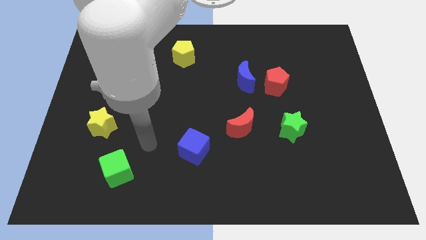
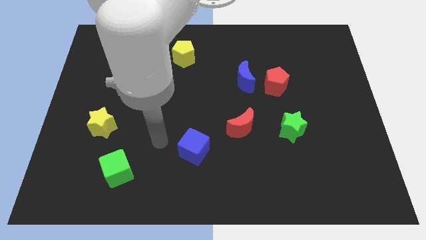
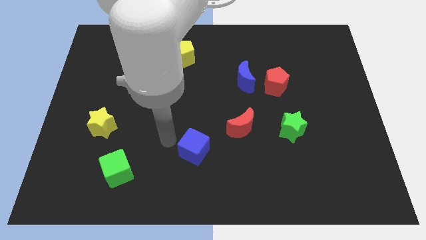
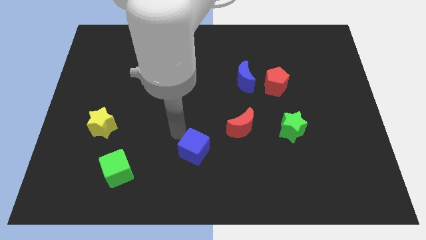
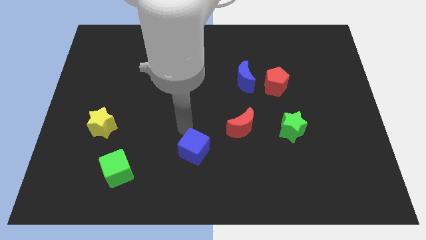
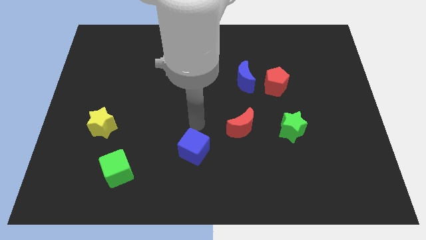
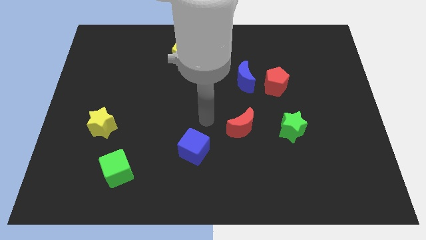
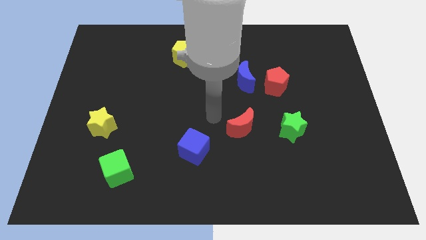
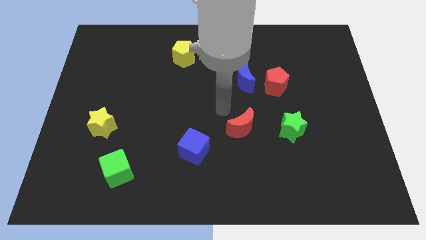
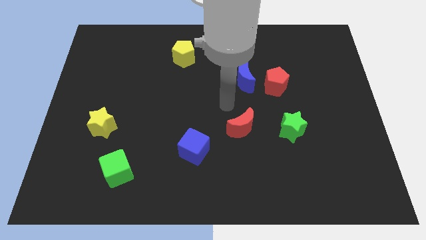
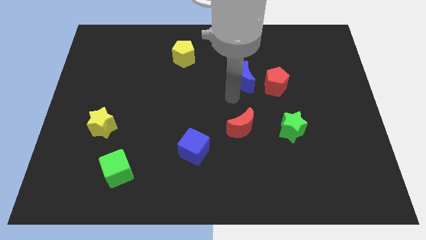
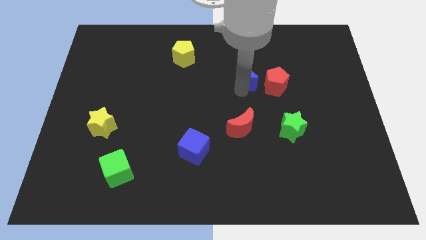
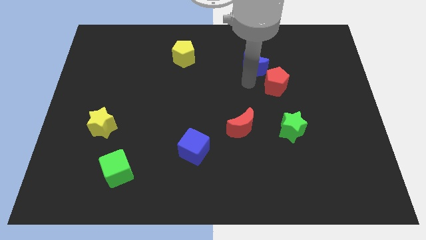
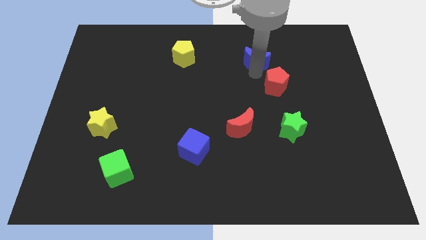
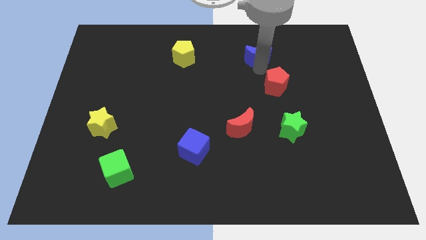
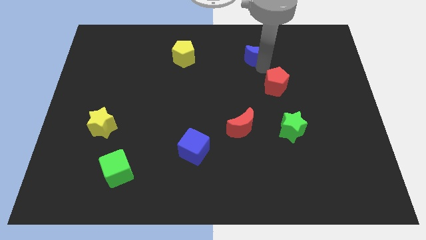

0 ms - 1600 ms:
separate the red pentagon from the blue moon

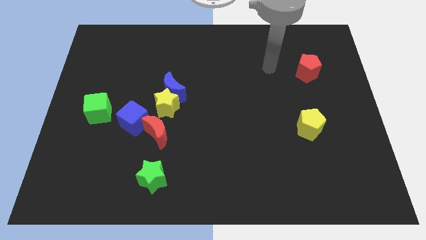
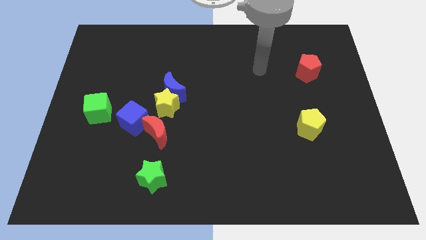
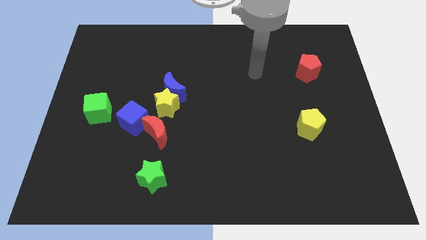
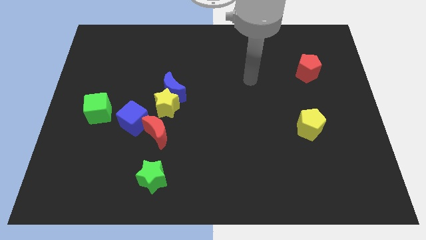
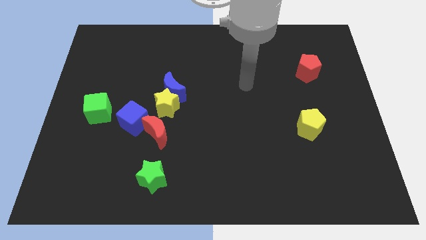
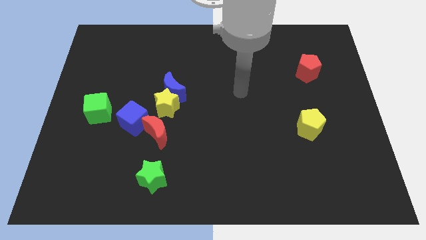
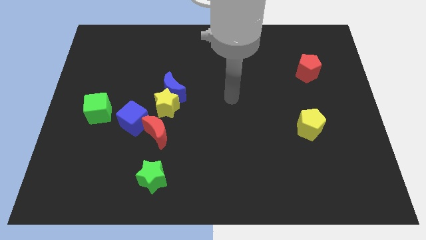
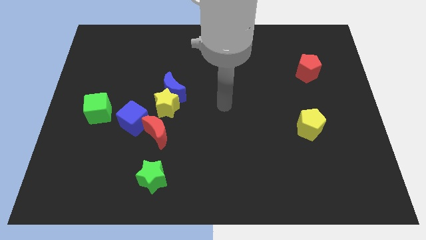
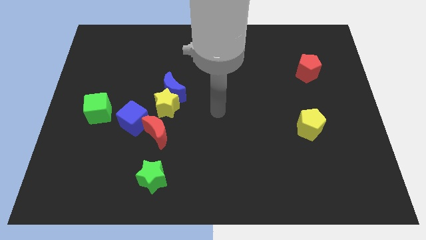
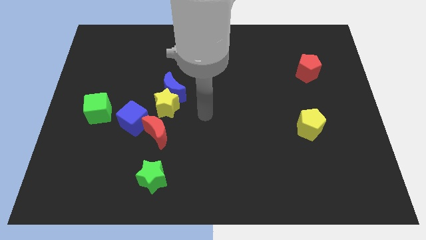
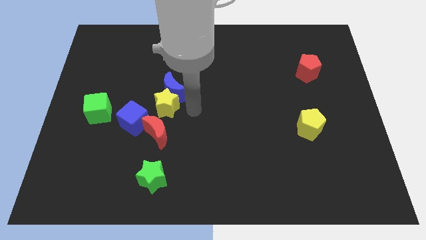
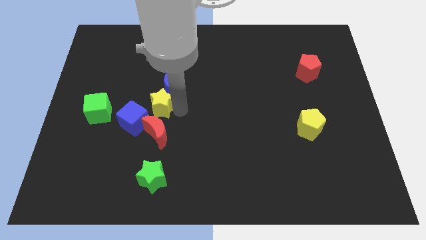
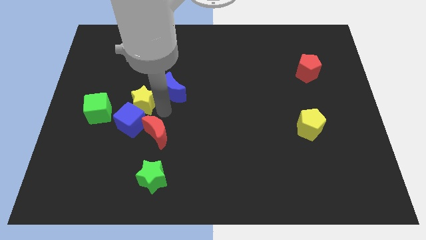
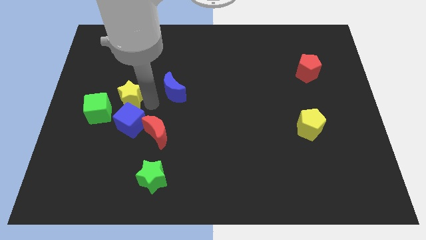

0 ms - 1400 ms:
pull the blue moon apart from the yellow star

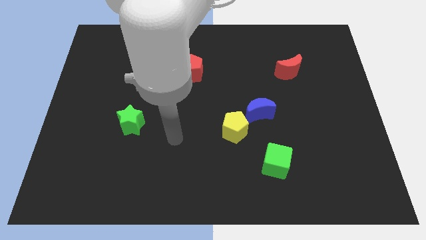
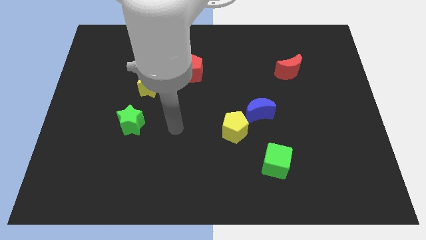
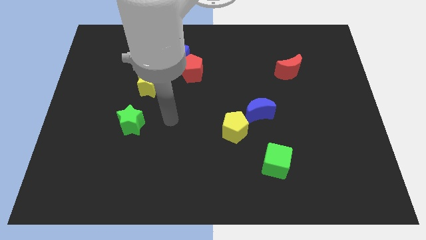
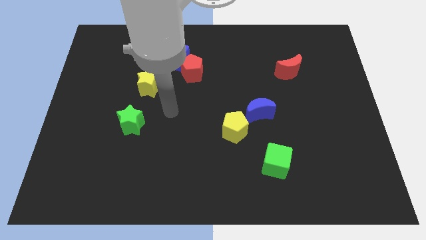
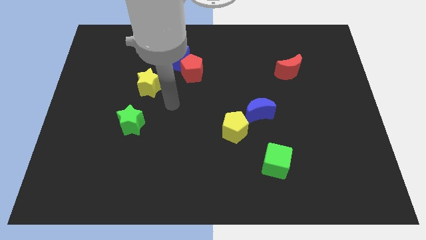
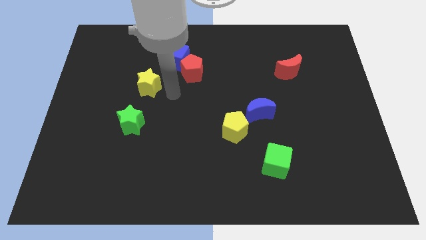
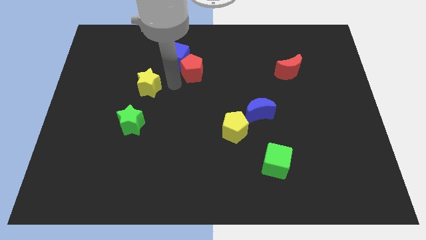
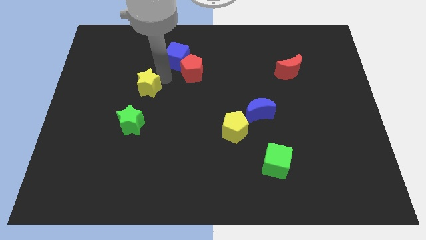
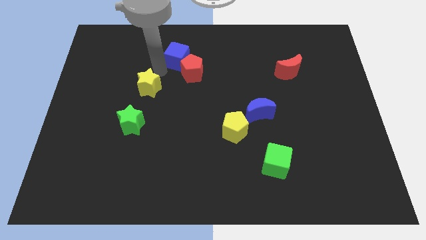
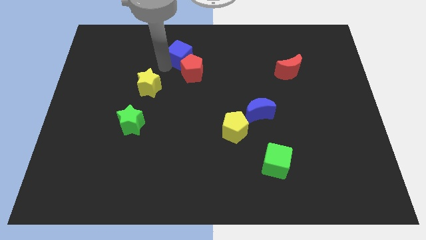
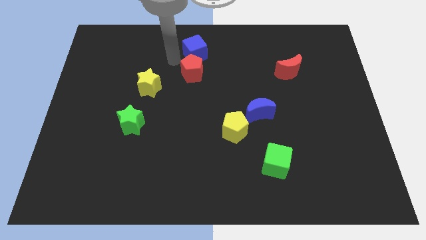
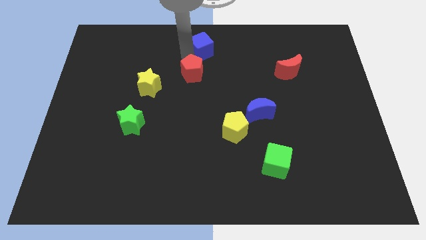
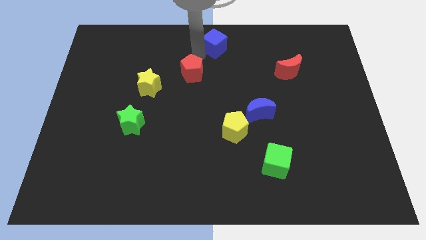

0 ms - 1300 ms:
move the red pentagon away from the blue cube

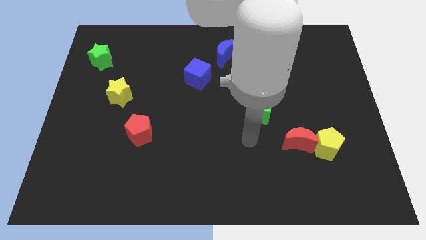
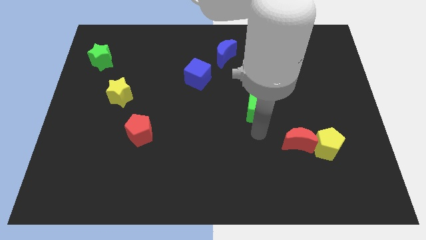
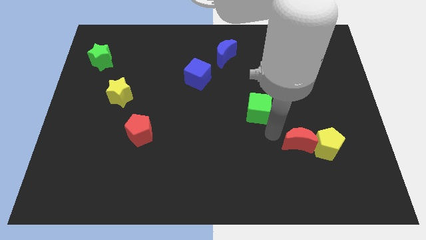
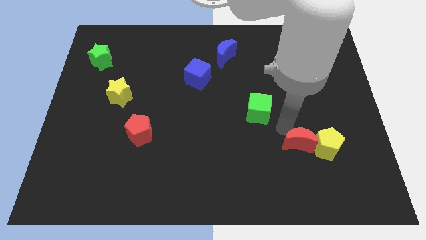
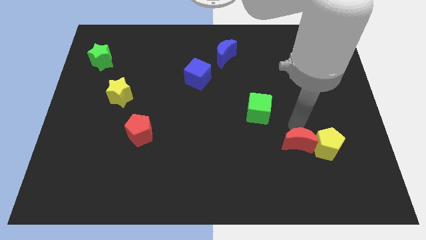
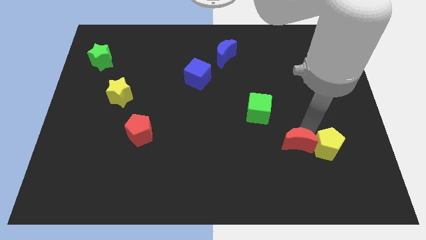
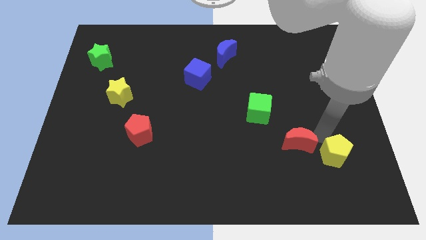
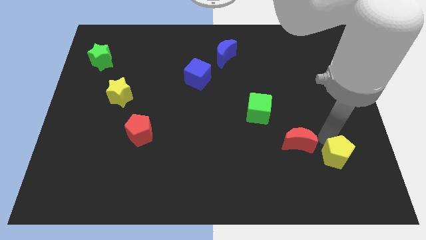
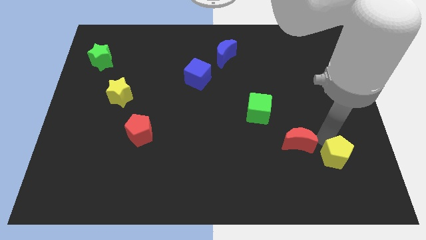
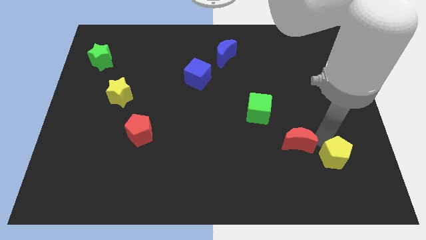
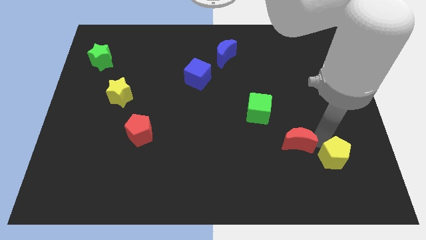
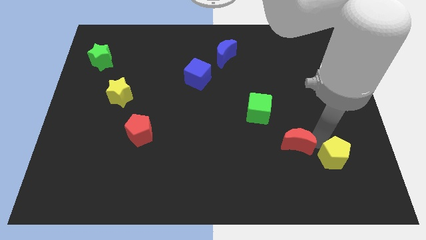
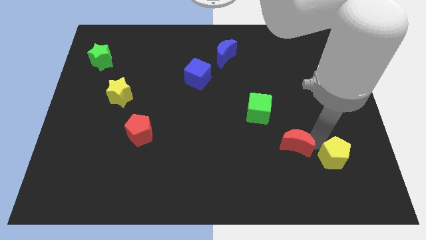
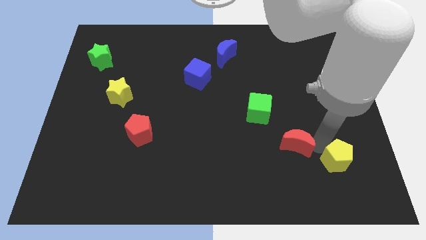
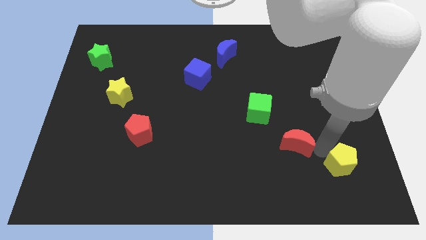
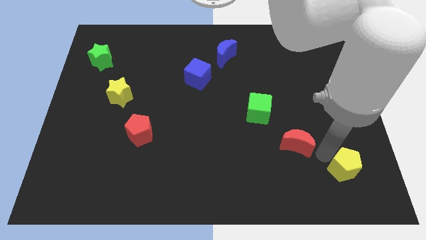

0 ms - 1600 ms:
separate the red moon from the yellow pentagon

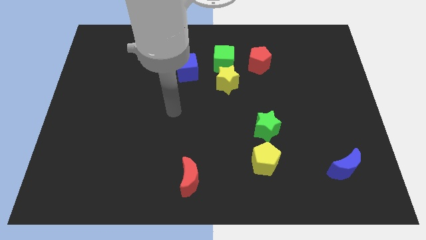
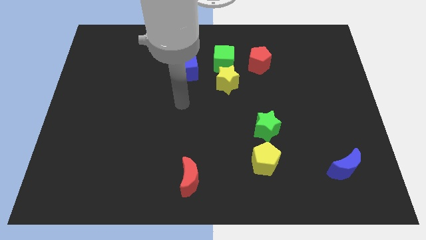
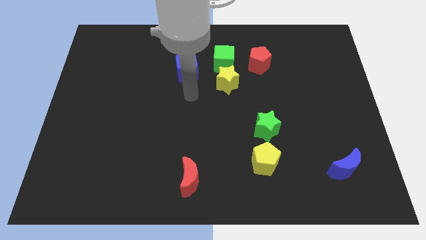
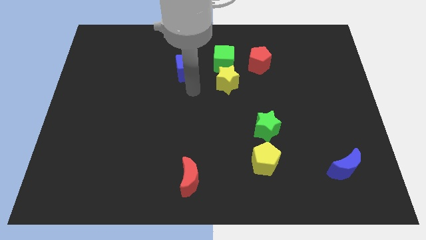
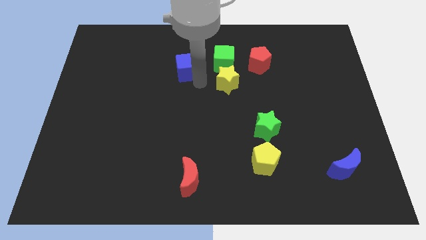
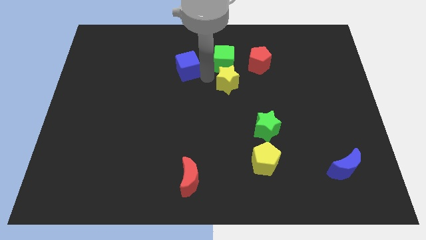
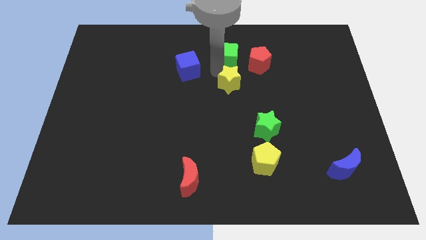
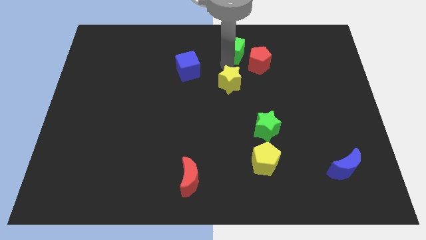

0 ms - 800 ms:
separate the yellow star from the green cube

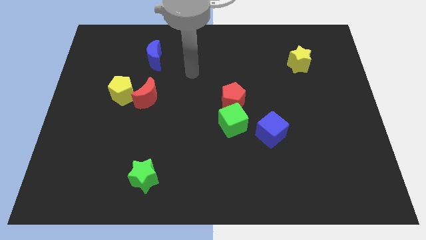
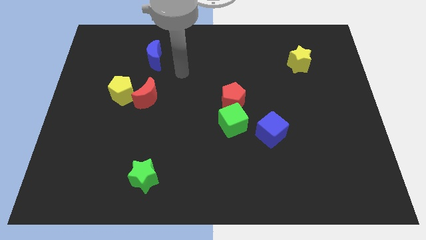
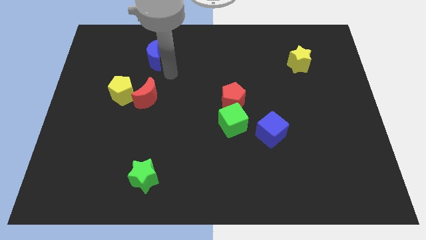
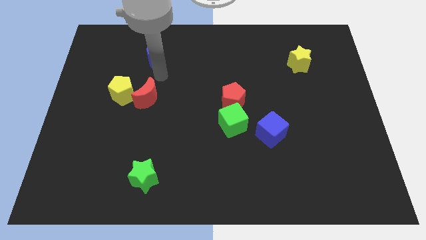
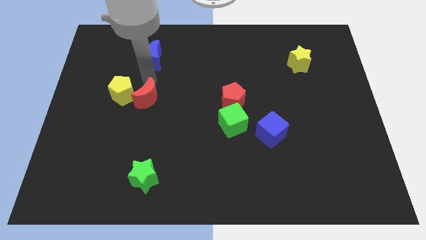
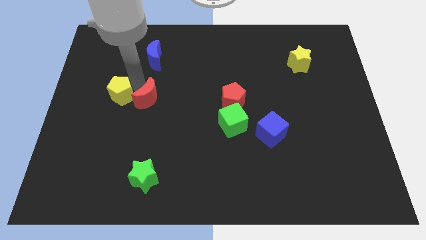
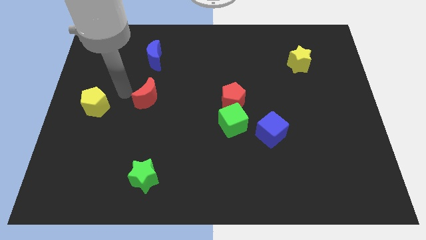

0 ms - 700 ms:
move the red moon away from the yellow pentagon

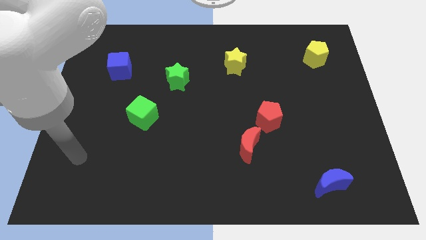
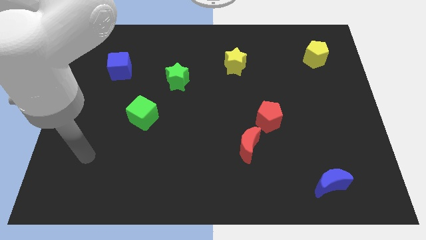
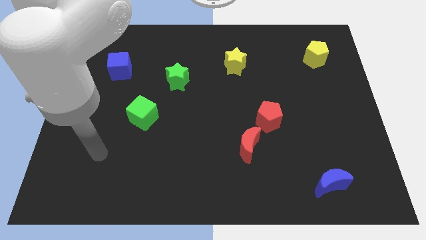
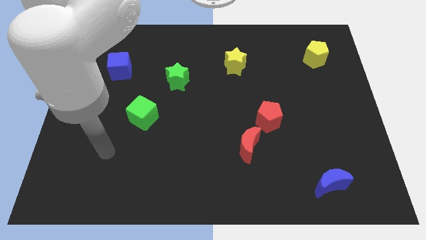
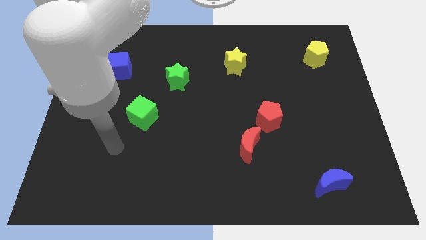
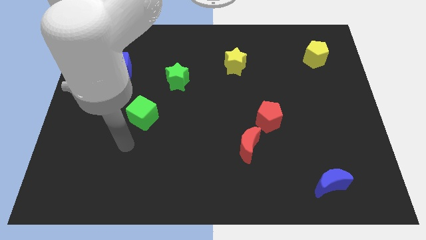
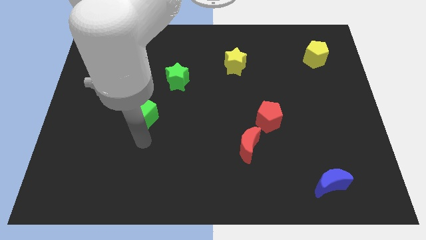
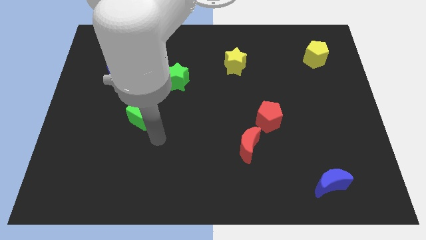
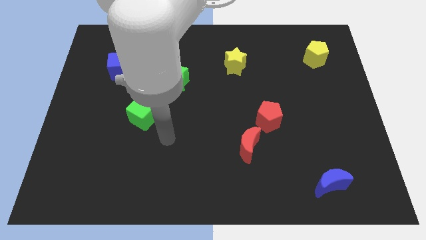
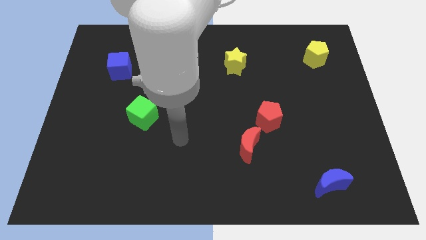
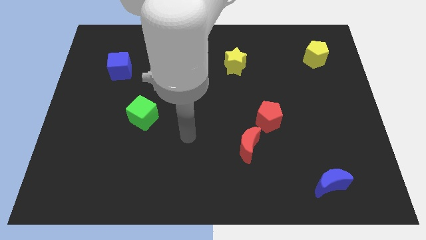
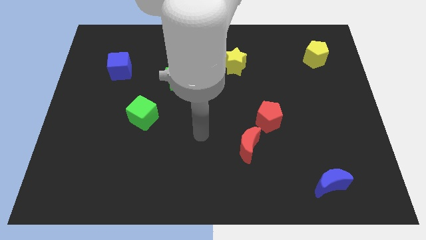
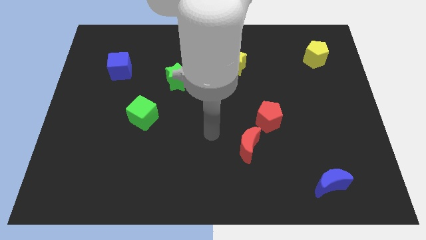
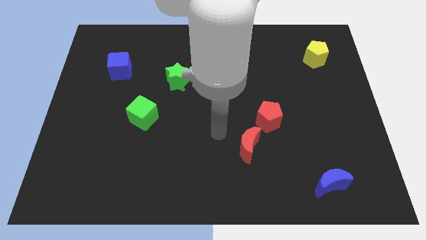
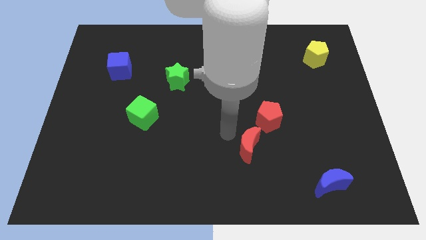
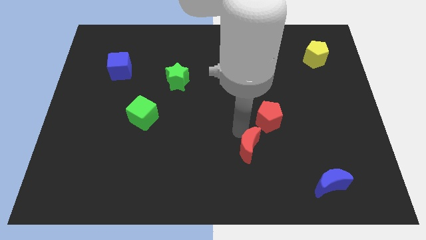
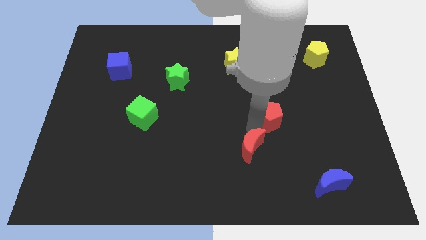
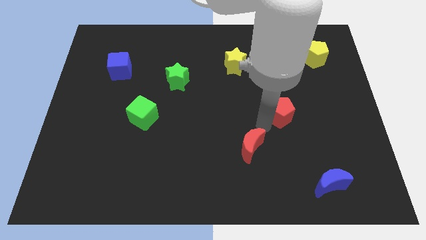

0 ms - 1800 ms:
pull the red moon apart from the red pentagon
